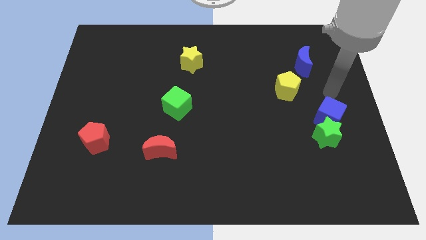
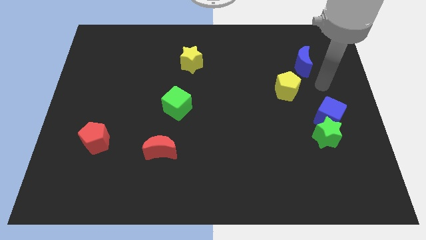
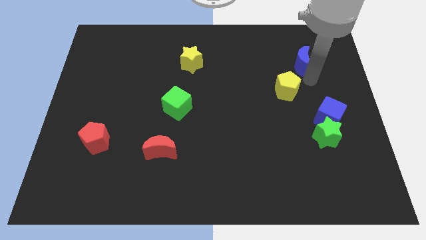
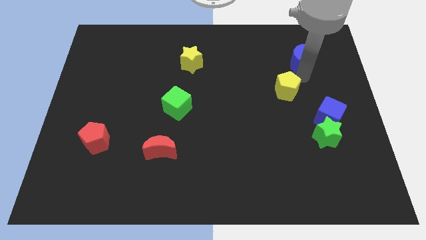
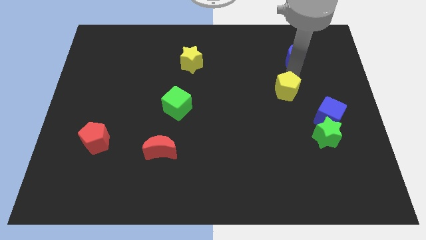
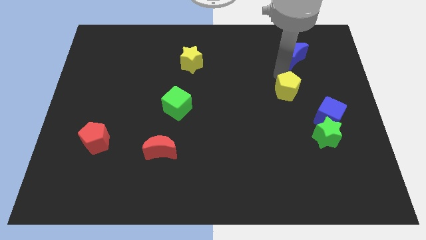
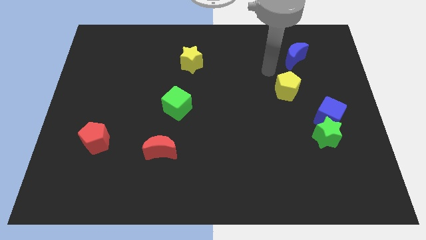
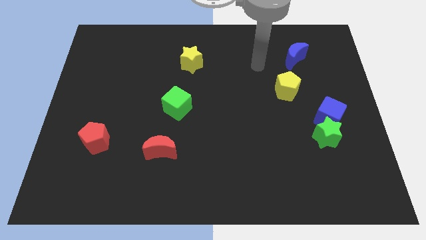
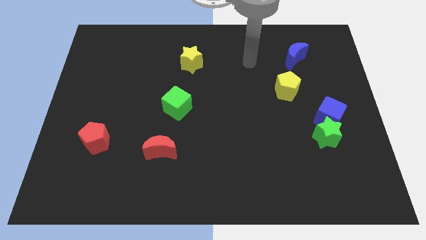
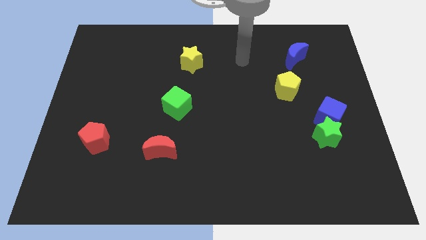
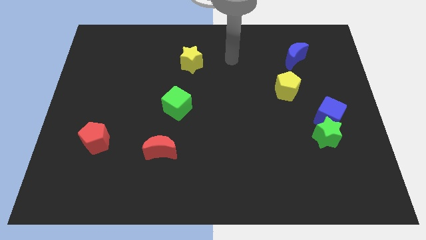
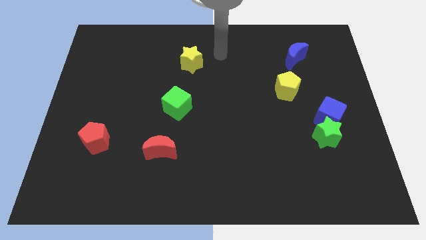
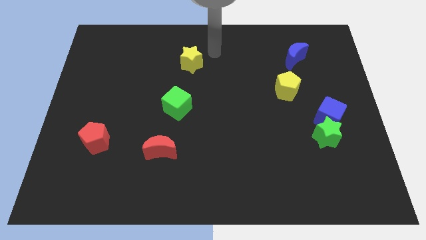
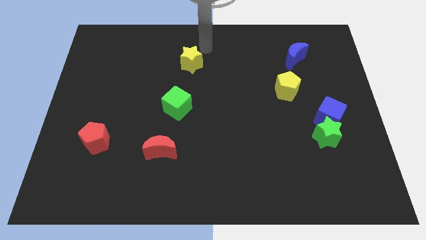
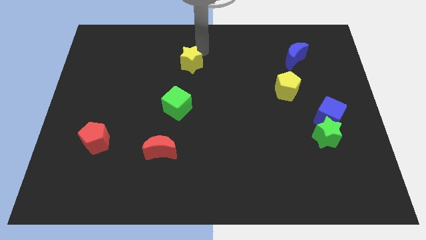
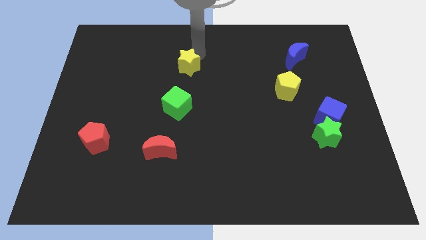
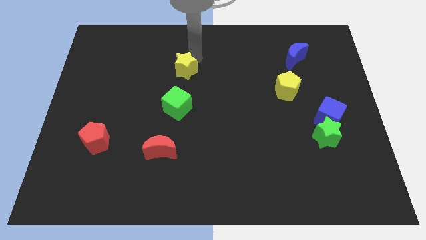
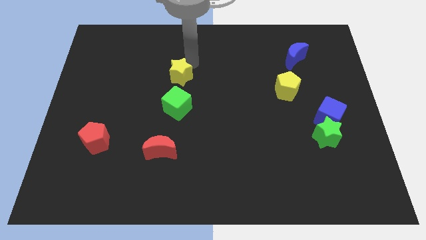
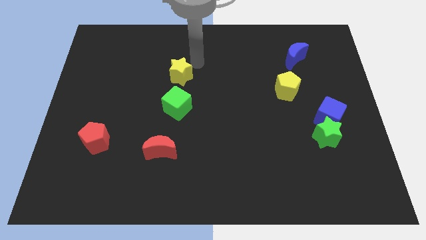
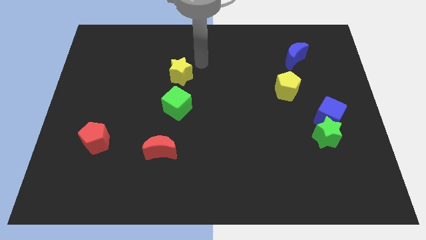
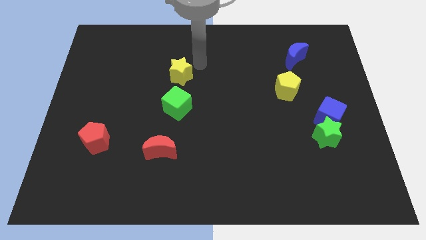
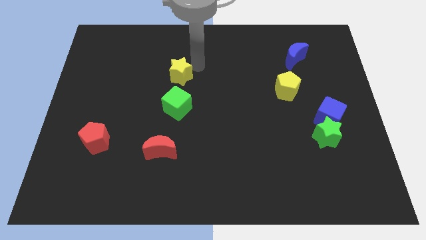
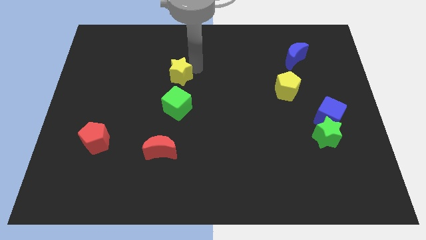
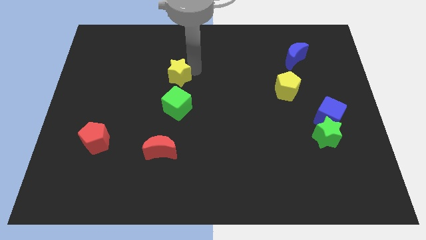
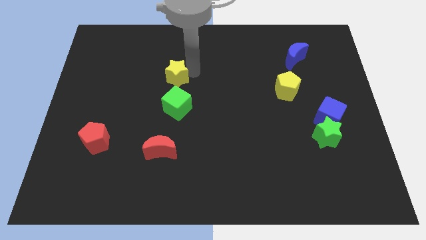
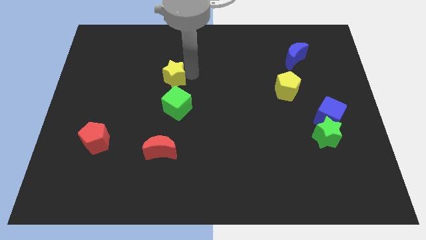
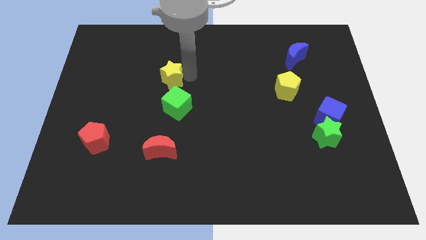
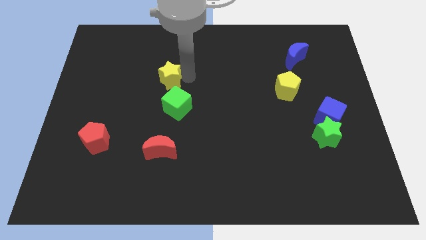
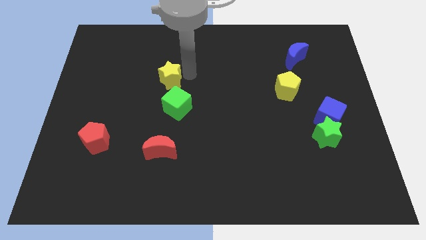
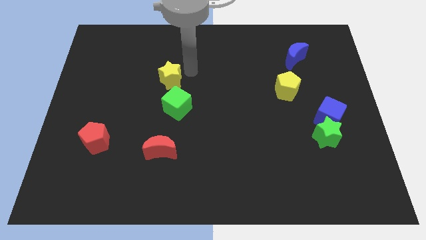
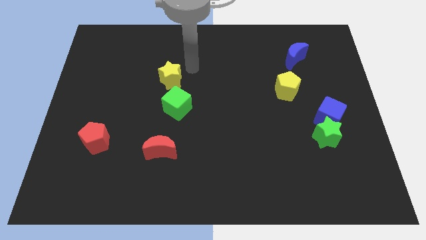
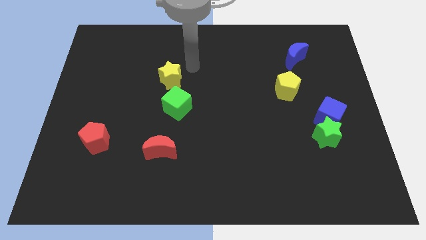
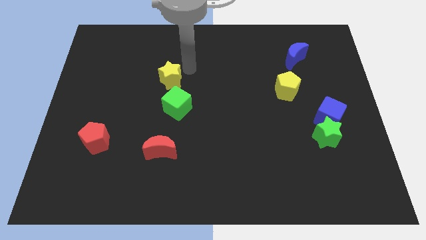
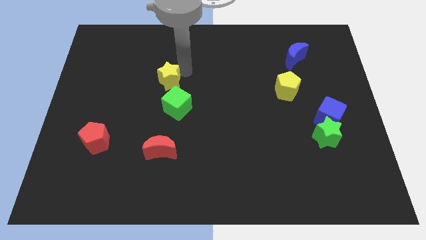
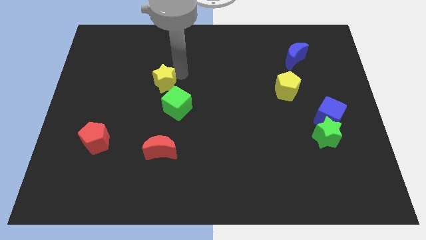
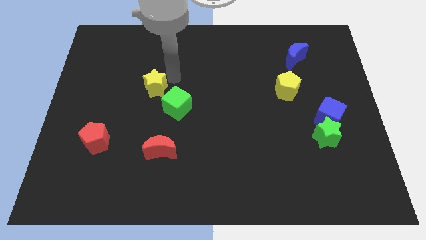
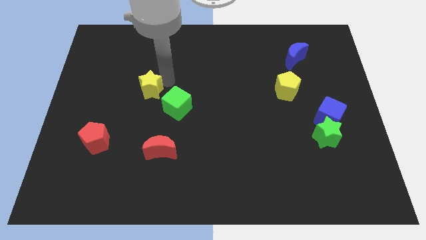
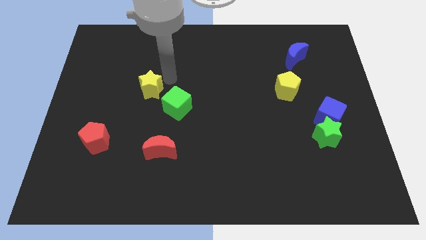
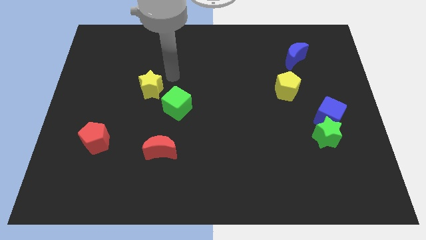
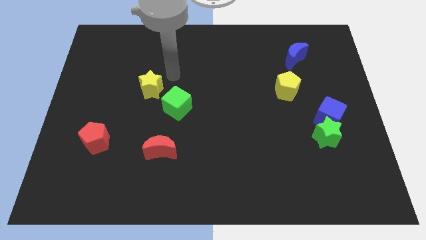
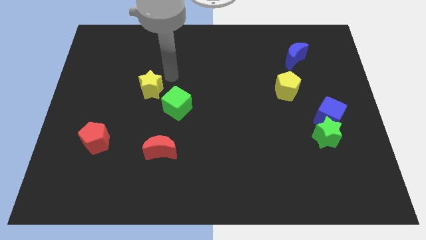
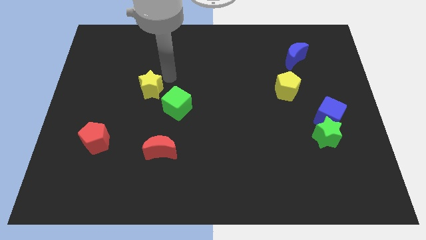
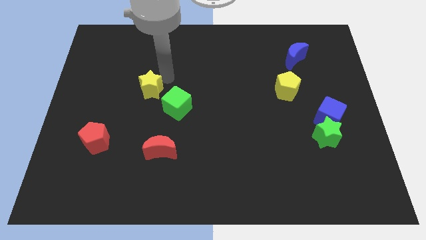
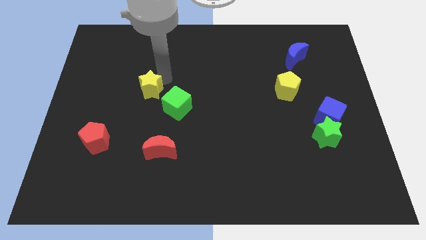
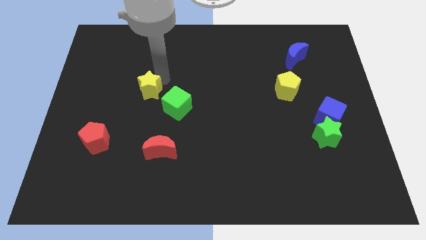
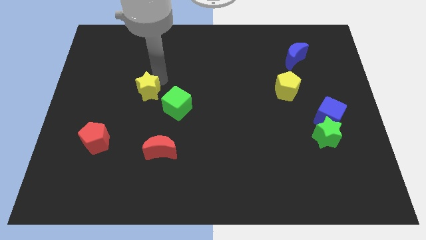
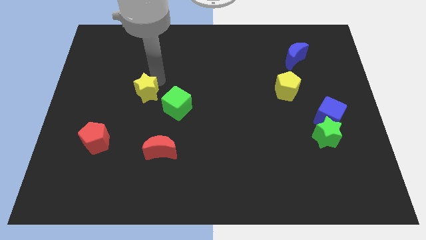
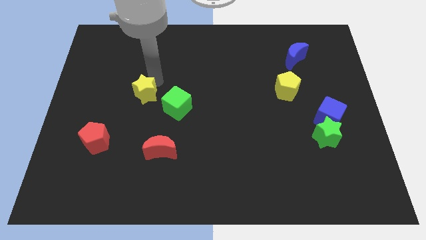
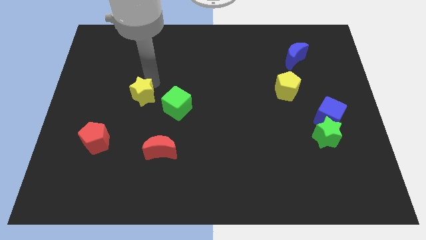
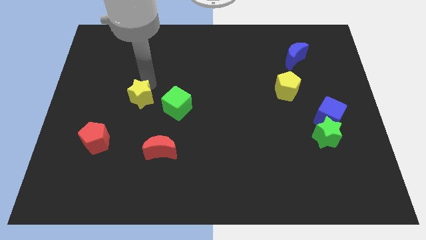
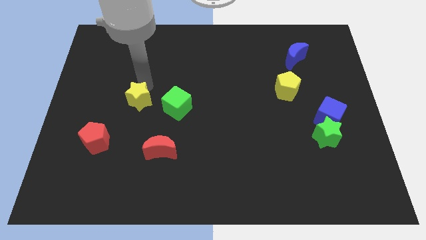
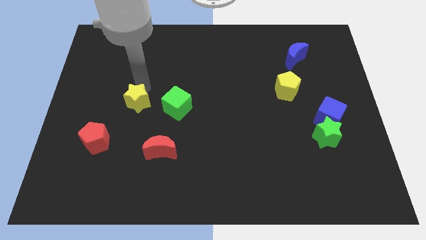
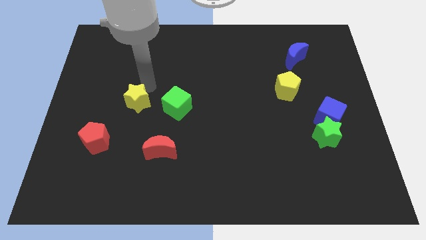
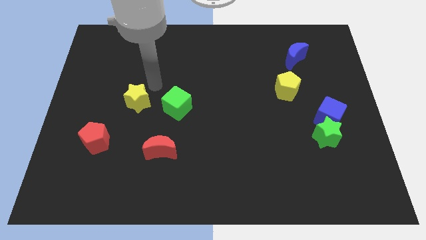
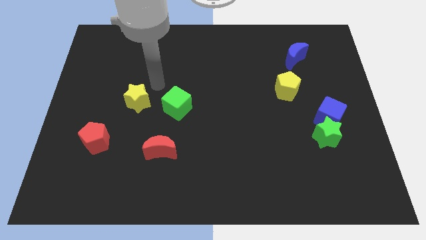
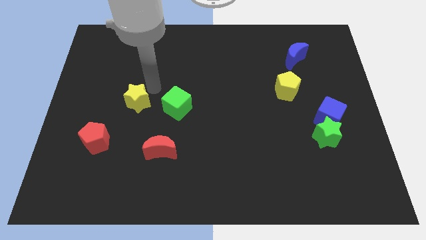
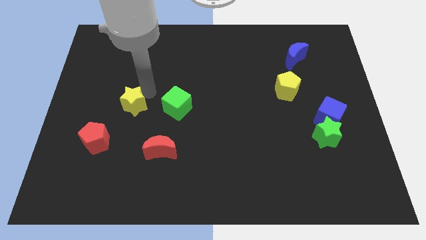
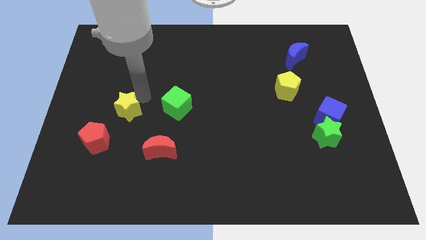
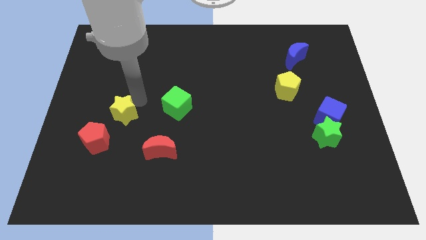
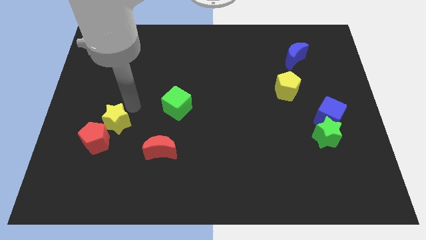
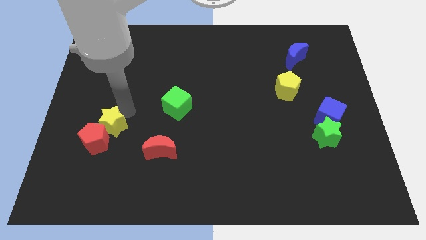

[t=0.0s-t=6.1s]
slide the yellow star next to the red pentagon
